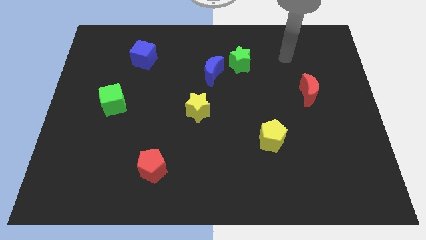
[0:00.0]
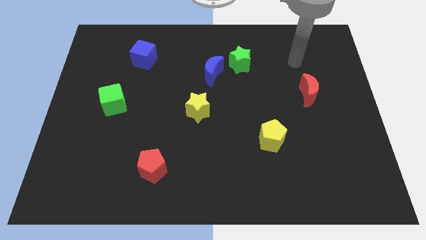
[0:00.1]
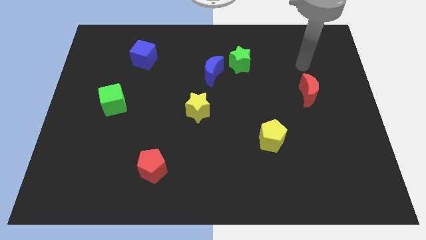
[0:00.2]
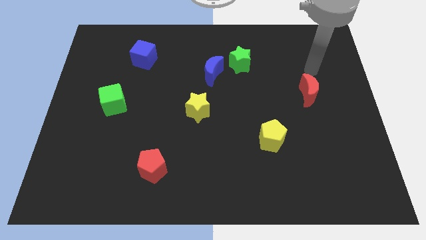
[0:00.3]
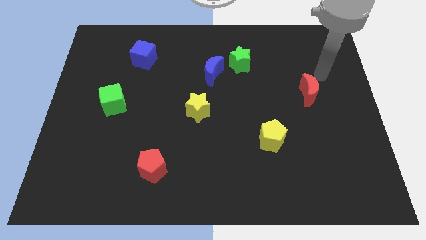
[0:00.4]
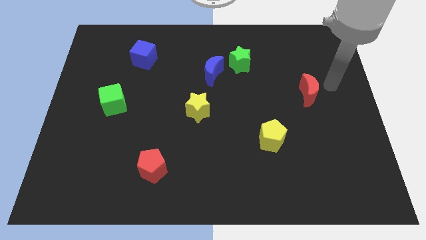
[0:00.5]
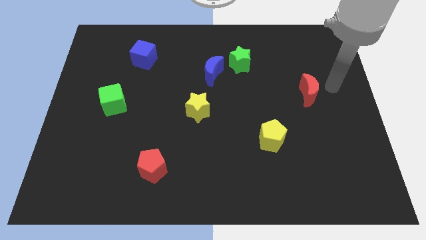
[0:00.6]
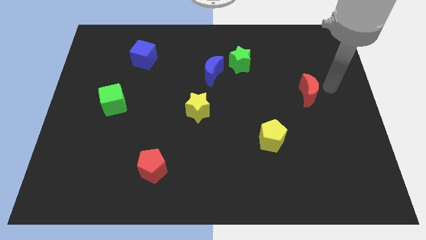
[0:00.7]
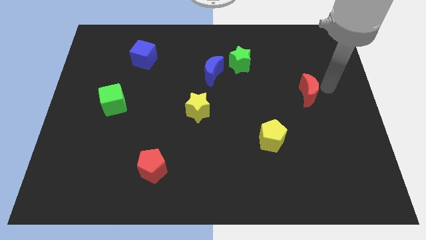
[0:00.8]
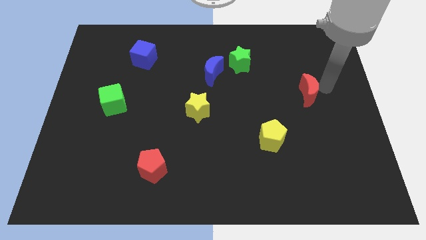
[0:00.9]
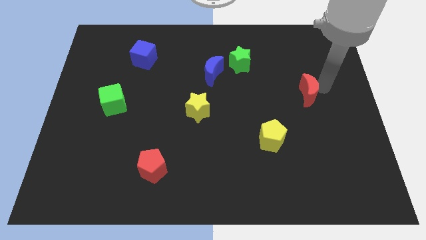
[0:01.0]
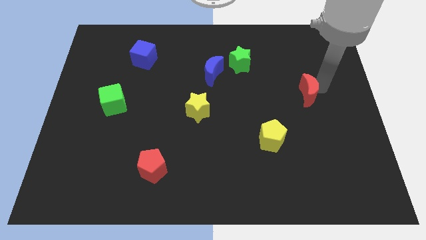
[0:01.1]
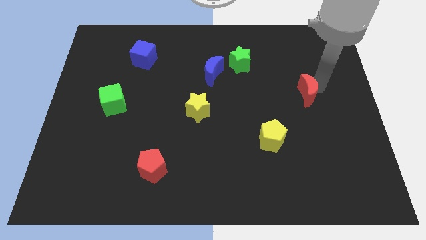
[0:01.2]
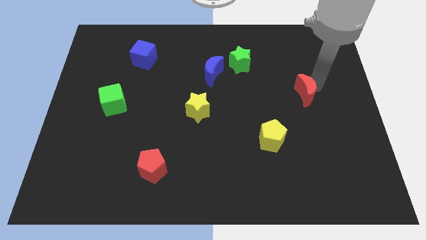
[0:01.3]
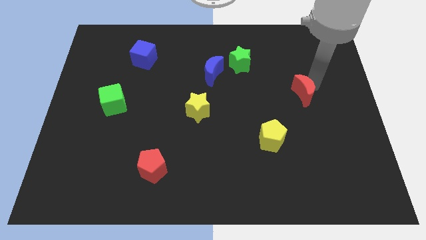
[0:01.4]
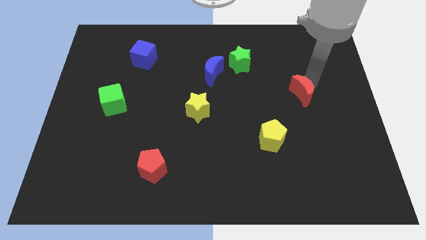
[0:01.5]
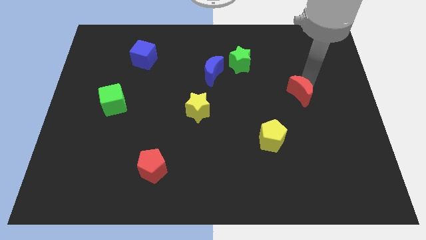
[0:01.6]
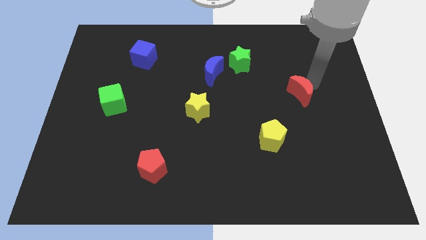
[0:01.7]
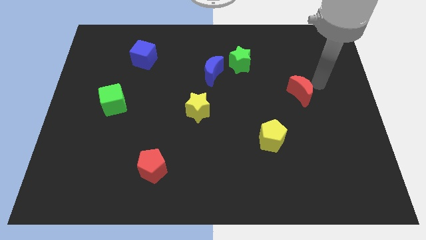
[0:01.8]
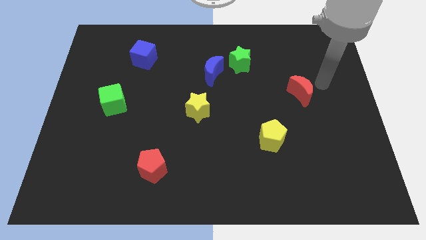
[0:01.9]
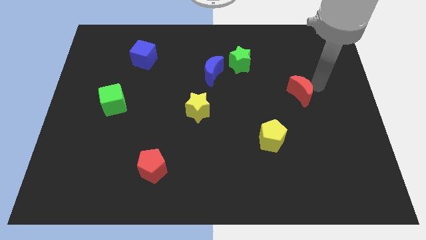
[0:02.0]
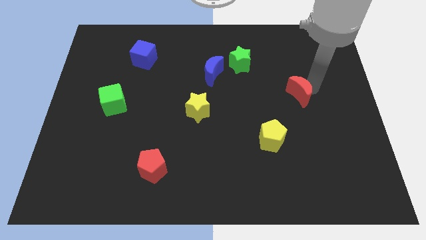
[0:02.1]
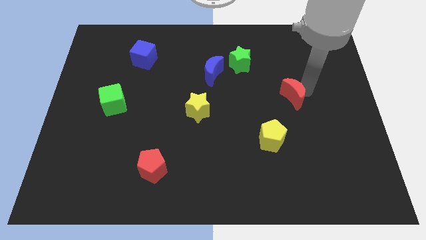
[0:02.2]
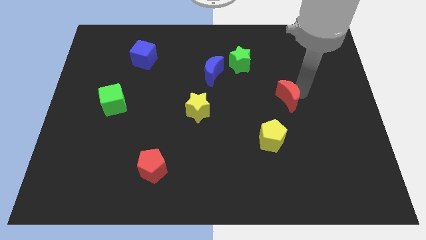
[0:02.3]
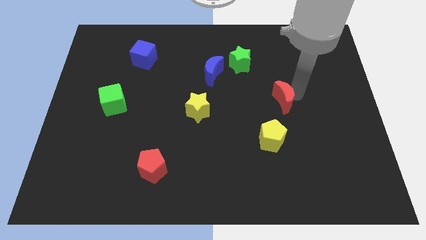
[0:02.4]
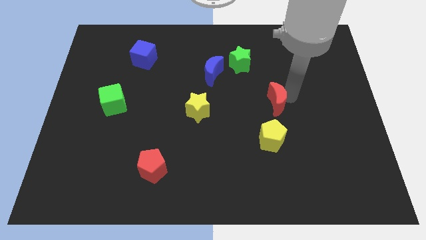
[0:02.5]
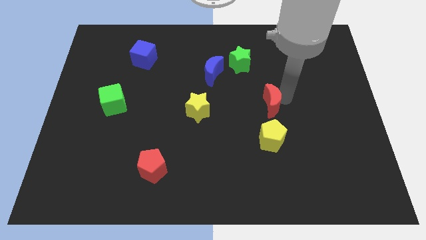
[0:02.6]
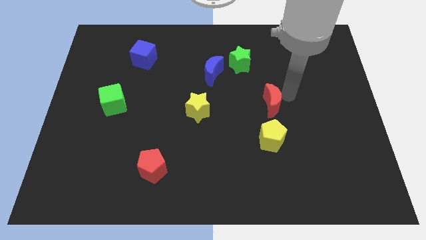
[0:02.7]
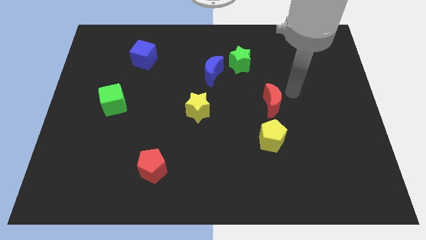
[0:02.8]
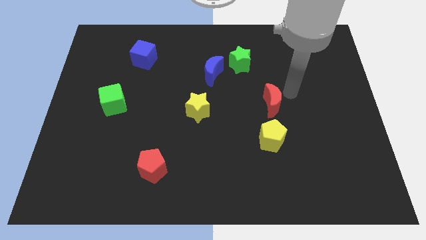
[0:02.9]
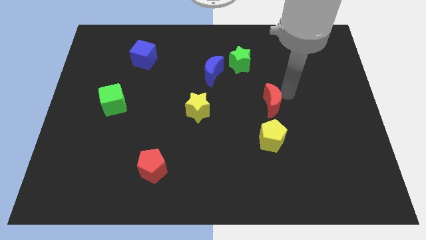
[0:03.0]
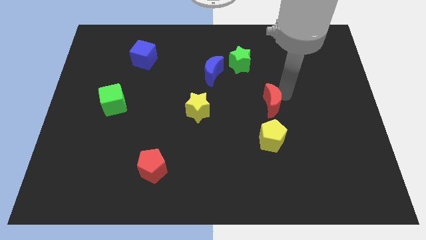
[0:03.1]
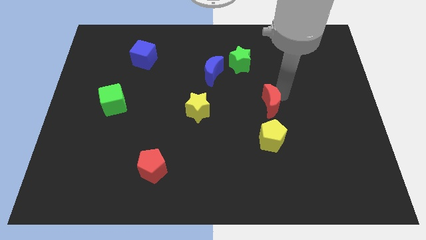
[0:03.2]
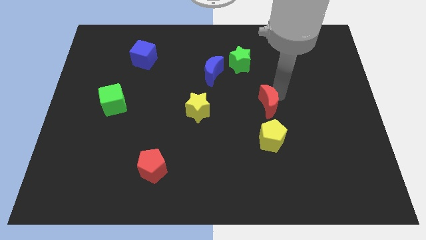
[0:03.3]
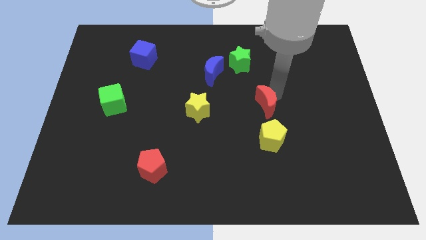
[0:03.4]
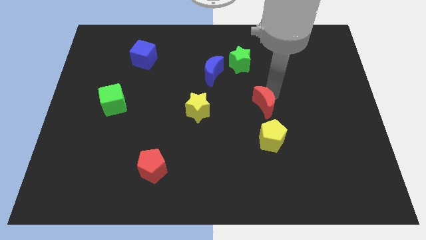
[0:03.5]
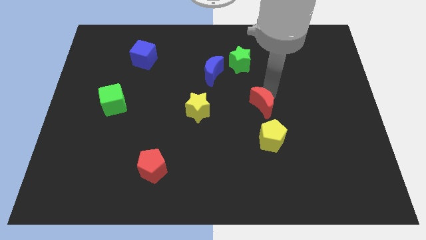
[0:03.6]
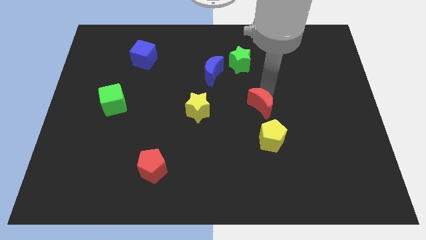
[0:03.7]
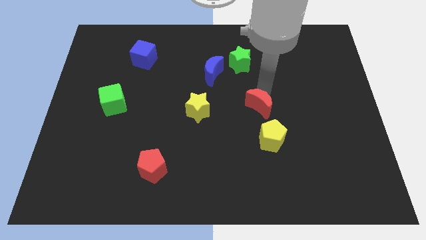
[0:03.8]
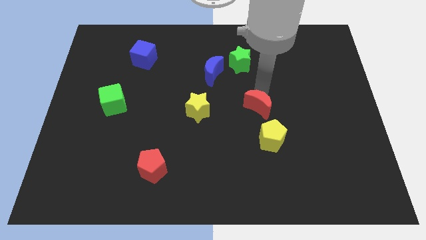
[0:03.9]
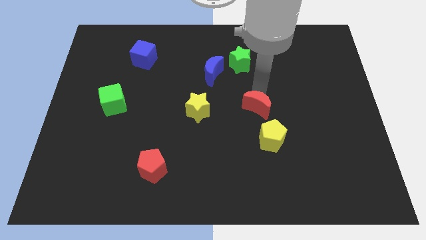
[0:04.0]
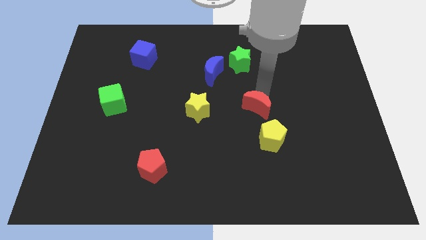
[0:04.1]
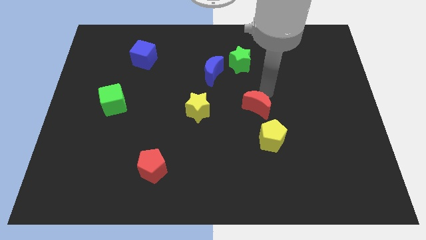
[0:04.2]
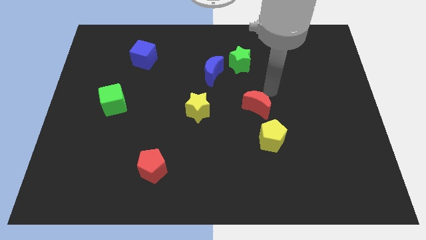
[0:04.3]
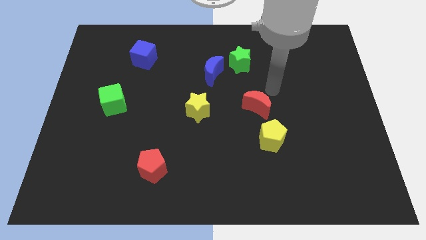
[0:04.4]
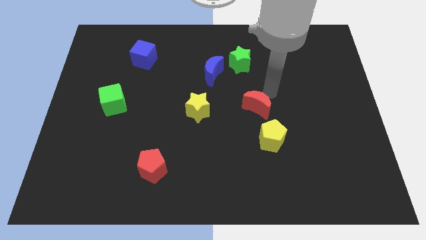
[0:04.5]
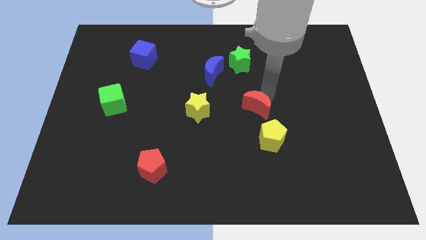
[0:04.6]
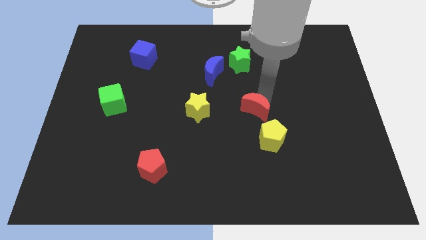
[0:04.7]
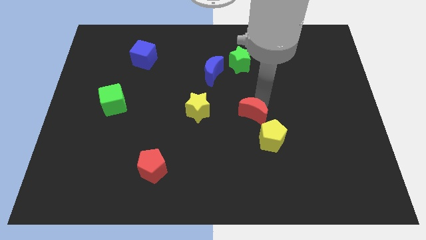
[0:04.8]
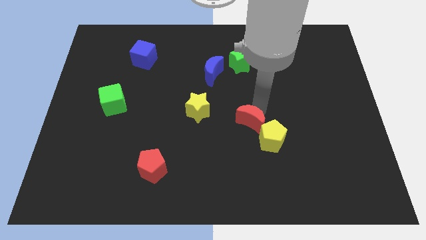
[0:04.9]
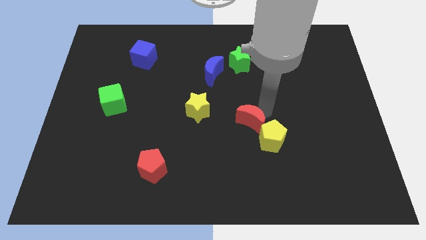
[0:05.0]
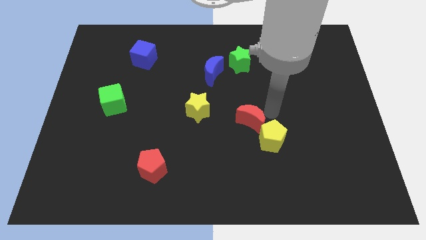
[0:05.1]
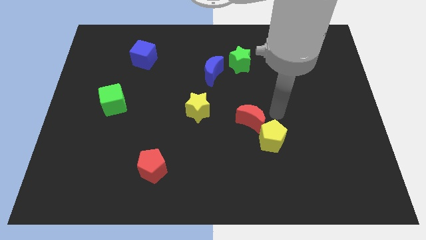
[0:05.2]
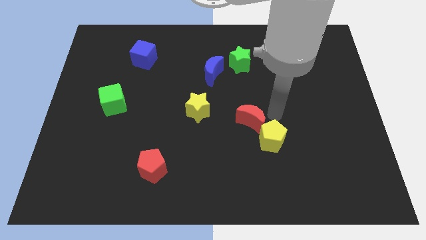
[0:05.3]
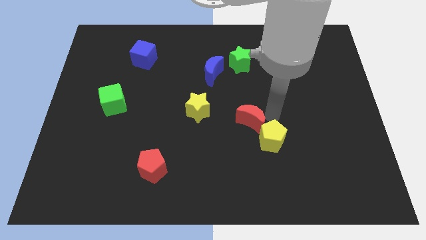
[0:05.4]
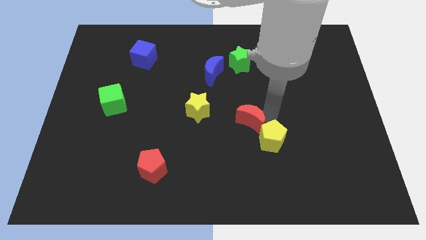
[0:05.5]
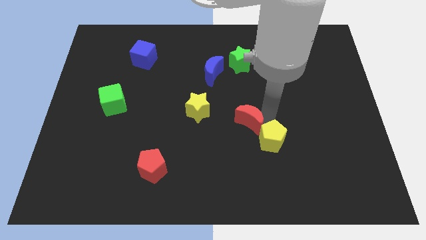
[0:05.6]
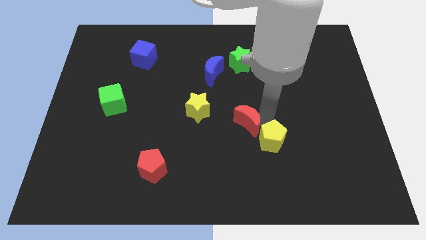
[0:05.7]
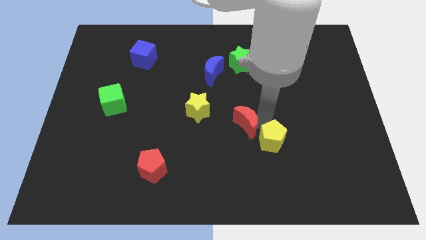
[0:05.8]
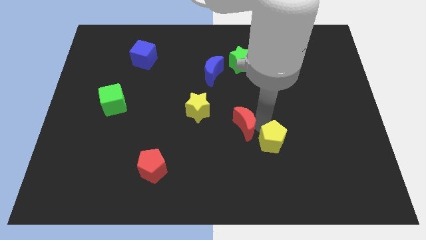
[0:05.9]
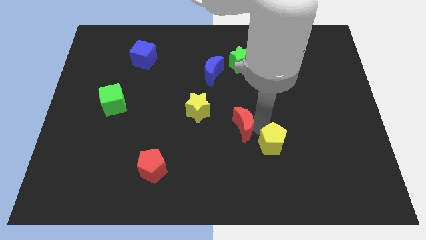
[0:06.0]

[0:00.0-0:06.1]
put the red moon diagonally down and to the right of the yellow star

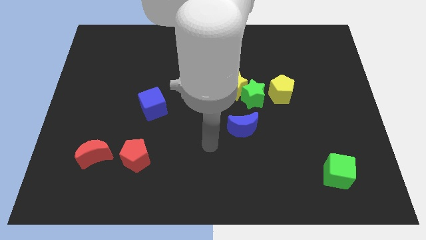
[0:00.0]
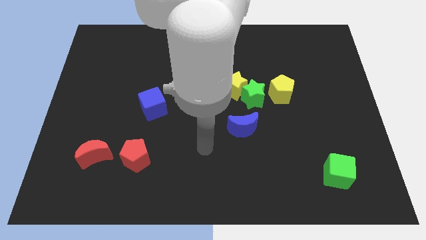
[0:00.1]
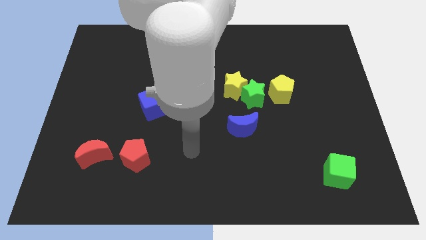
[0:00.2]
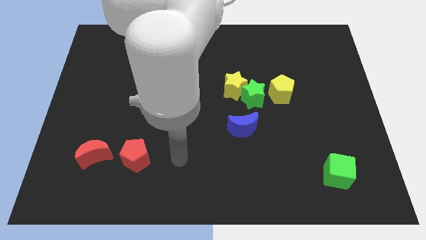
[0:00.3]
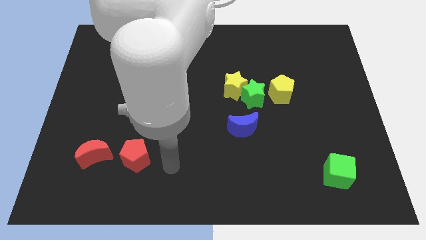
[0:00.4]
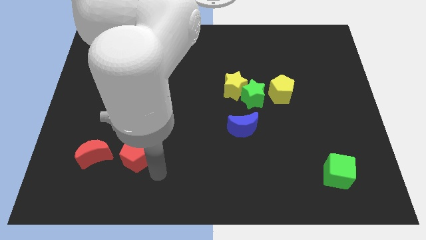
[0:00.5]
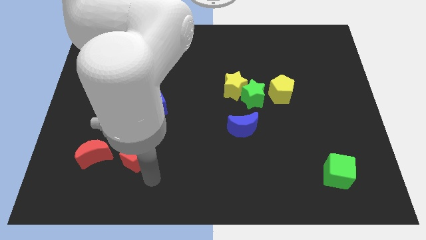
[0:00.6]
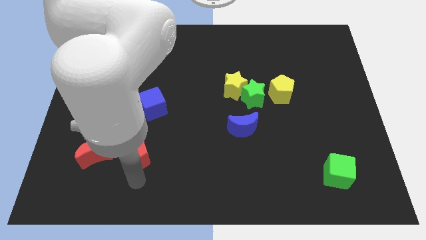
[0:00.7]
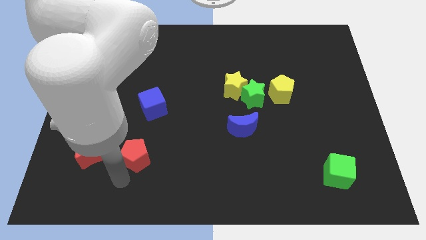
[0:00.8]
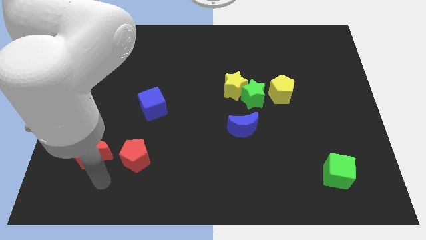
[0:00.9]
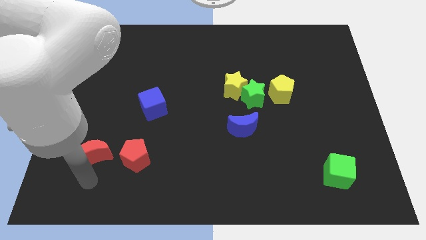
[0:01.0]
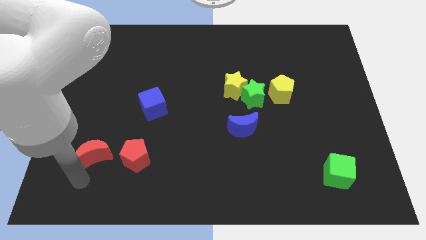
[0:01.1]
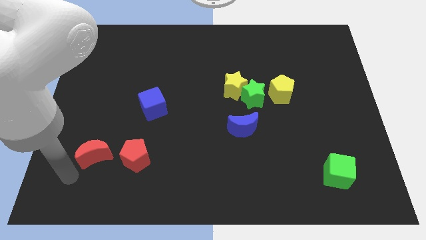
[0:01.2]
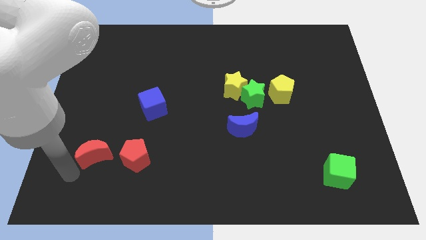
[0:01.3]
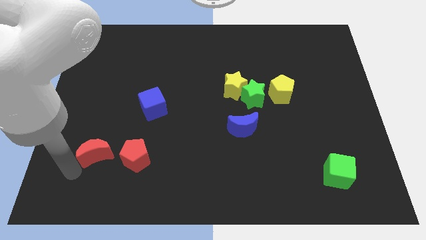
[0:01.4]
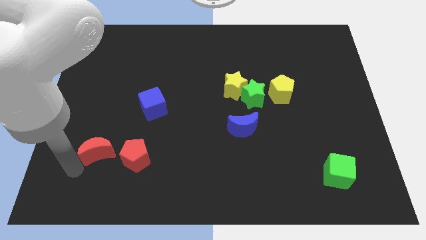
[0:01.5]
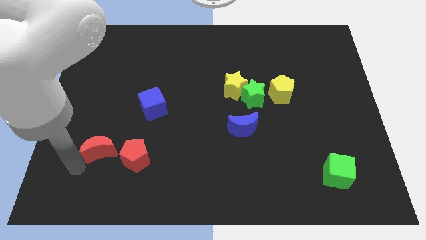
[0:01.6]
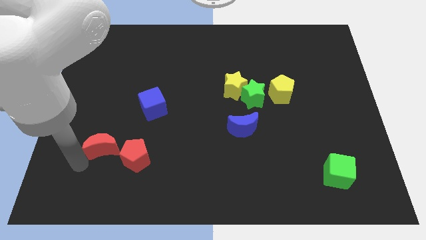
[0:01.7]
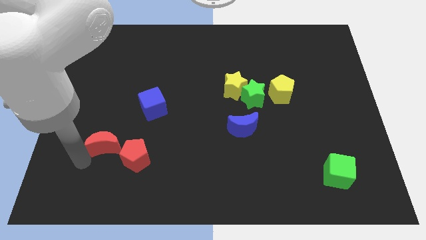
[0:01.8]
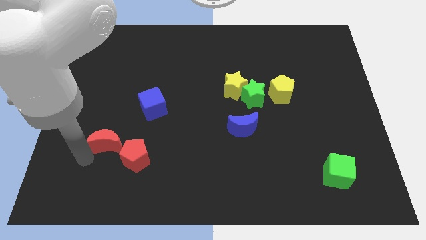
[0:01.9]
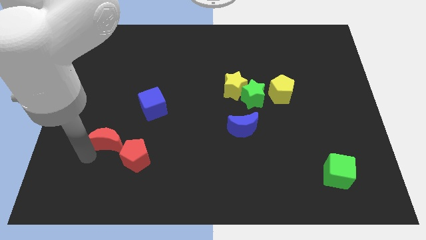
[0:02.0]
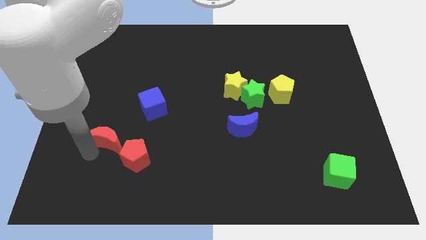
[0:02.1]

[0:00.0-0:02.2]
move the red moon diagonally down and to the left of the blue cube
